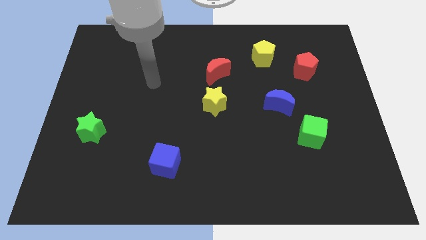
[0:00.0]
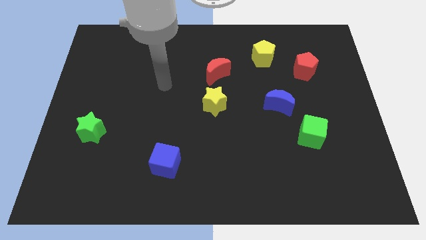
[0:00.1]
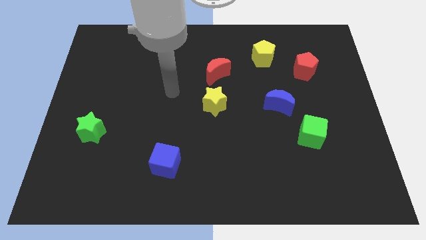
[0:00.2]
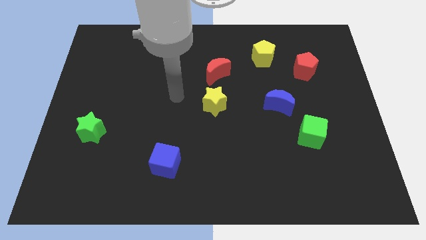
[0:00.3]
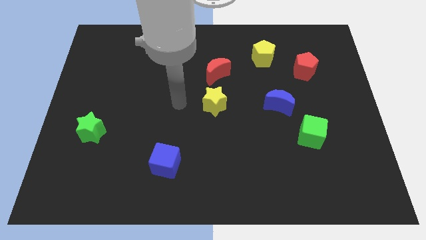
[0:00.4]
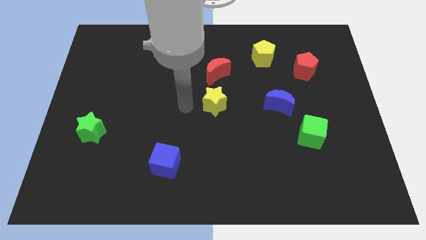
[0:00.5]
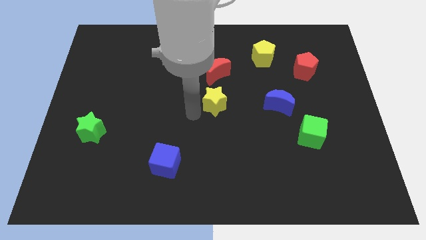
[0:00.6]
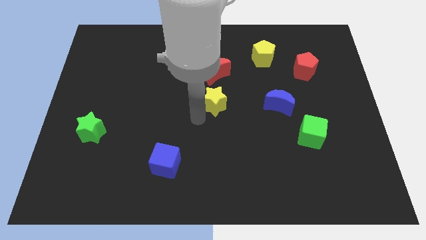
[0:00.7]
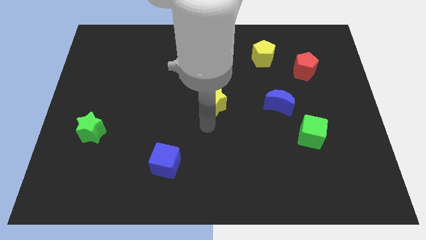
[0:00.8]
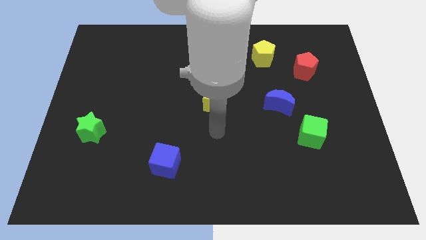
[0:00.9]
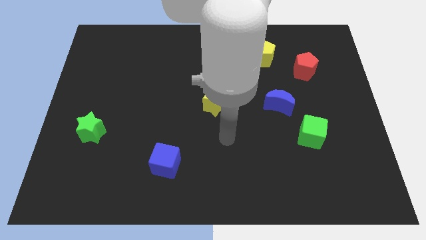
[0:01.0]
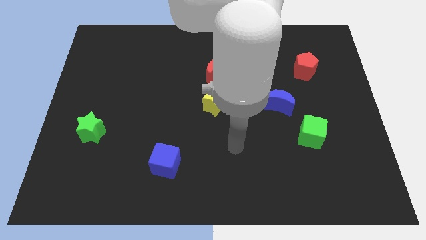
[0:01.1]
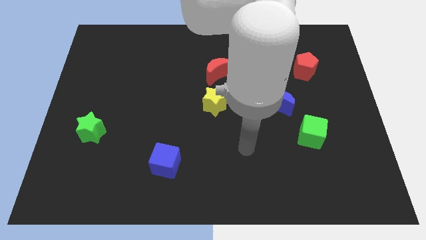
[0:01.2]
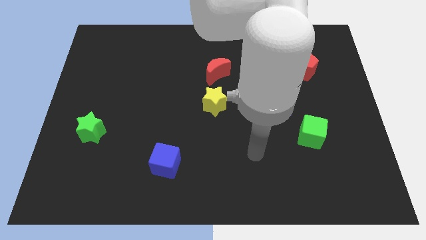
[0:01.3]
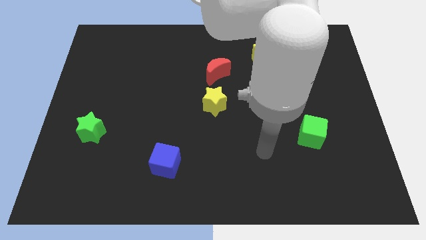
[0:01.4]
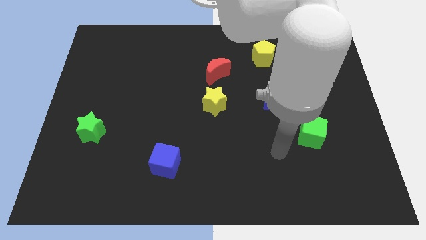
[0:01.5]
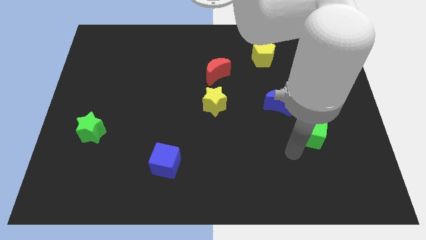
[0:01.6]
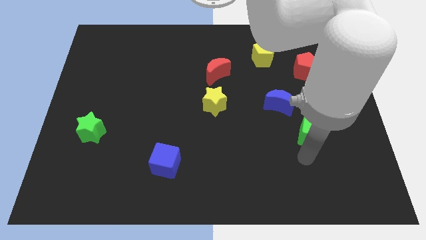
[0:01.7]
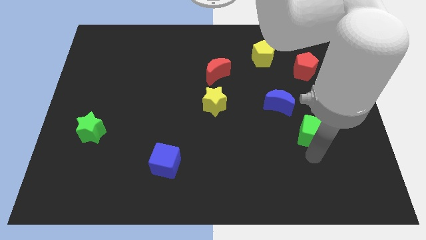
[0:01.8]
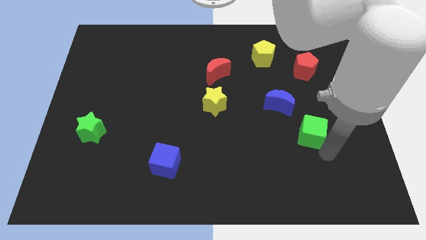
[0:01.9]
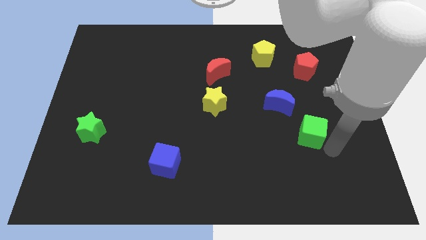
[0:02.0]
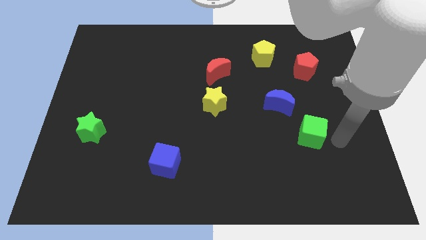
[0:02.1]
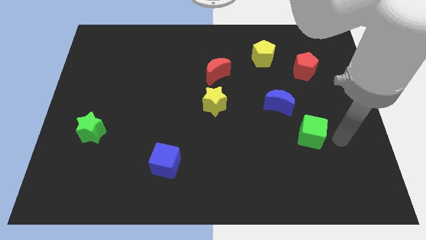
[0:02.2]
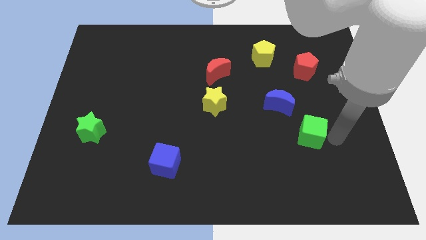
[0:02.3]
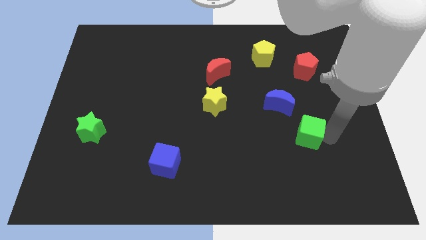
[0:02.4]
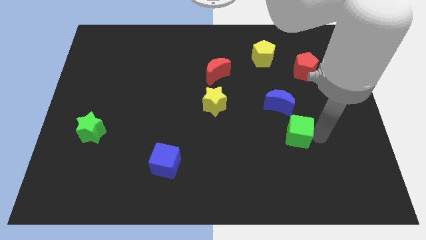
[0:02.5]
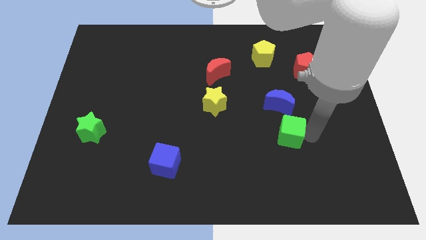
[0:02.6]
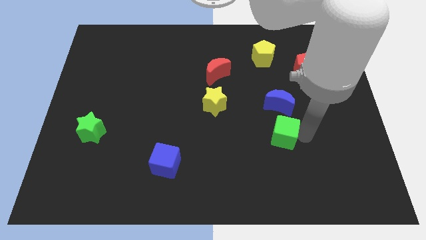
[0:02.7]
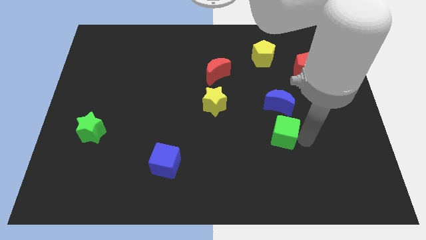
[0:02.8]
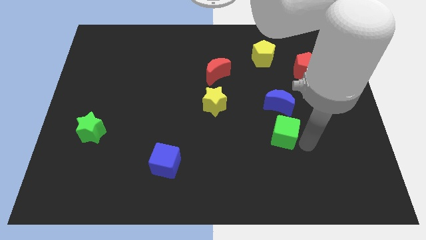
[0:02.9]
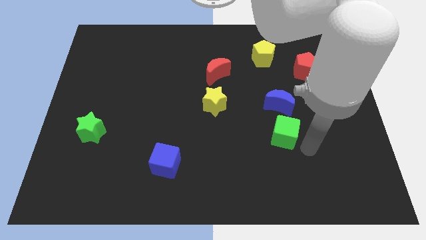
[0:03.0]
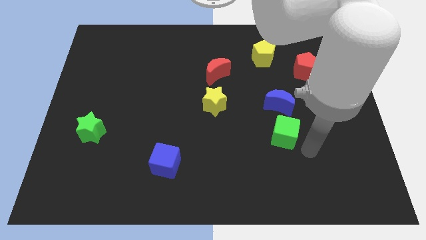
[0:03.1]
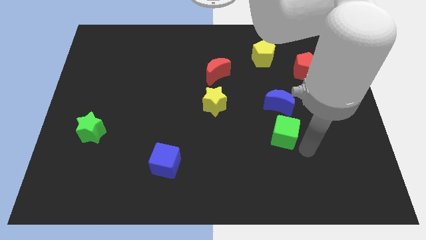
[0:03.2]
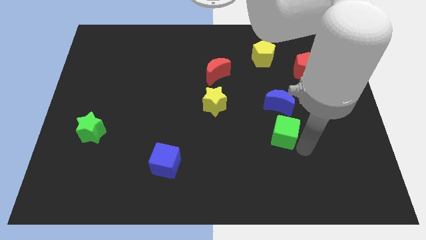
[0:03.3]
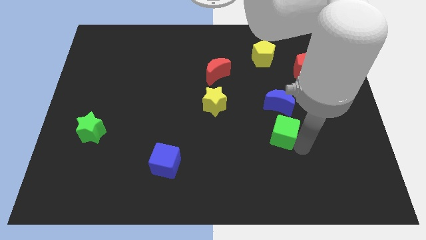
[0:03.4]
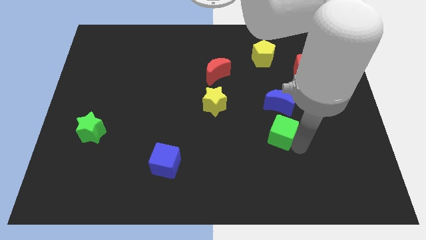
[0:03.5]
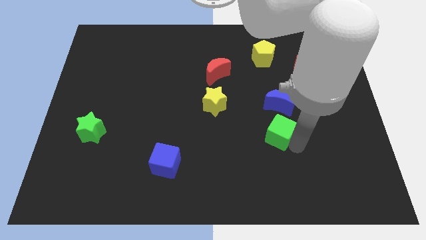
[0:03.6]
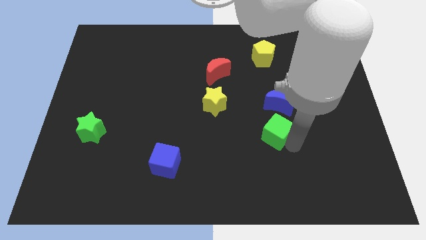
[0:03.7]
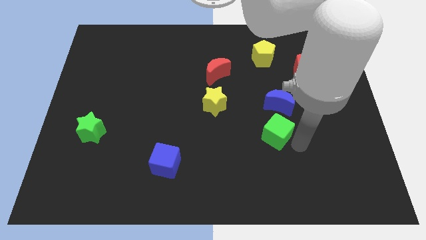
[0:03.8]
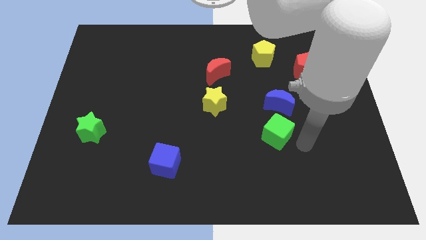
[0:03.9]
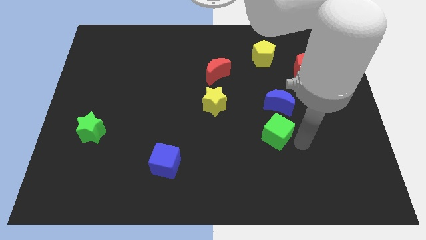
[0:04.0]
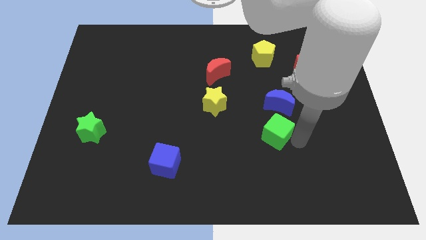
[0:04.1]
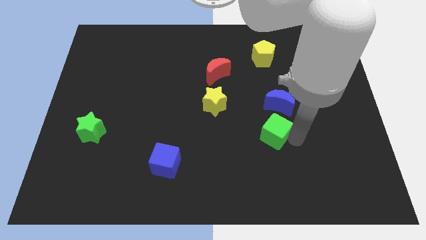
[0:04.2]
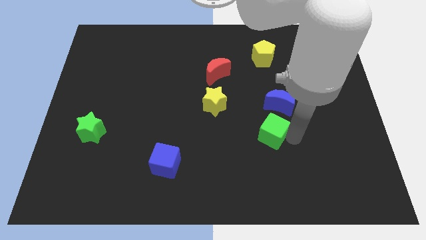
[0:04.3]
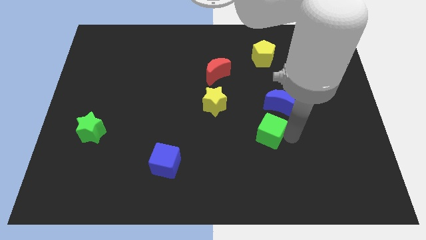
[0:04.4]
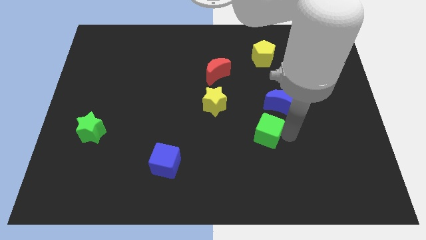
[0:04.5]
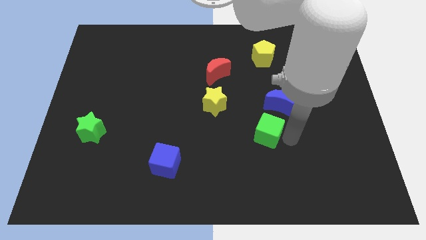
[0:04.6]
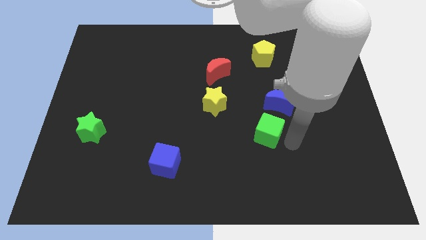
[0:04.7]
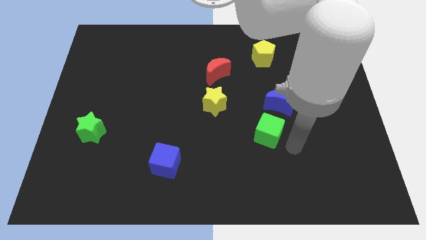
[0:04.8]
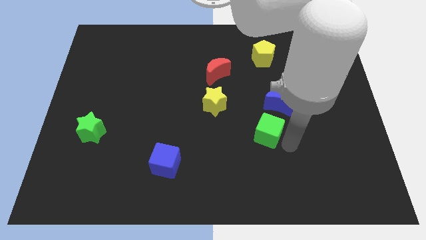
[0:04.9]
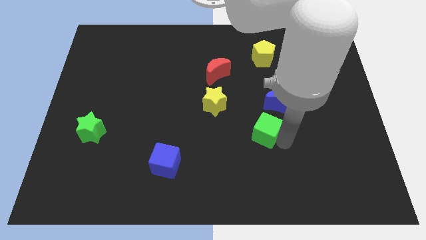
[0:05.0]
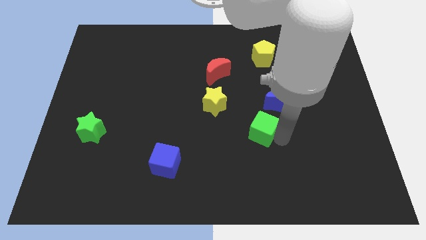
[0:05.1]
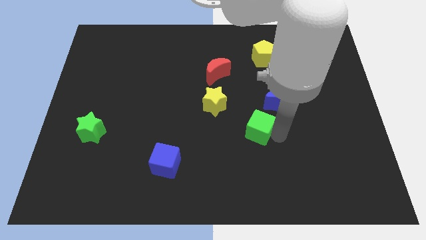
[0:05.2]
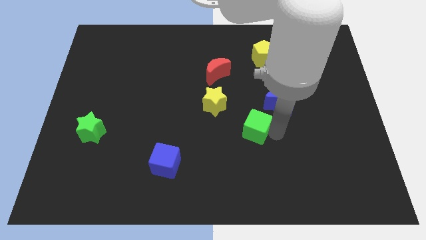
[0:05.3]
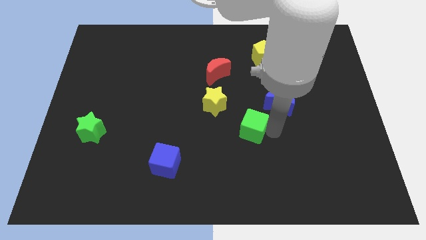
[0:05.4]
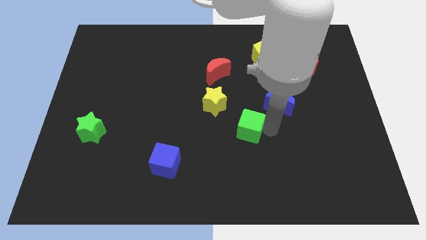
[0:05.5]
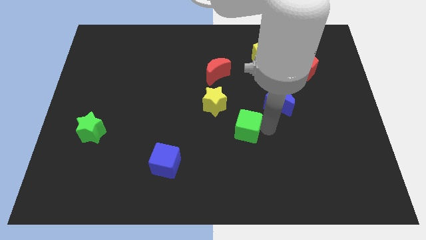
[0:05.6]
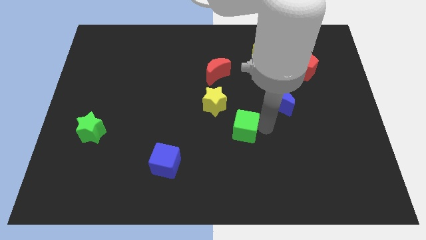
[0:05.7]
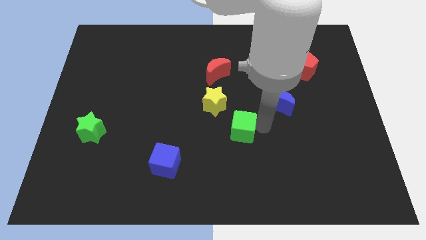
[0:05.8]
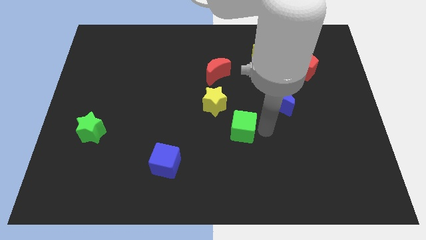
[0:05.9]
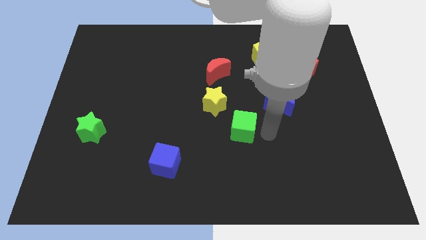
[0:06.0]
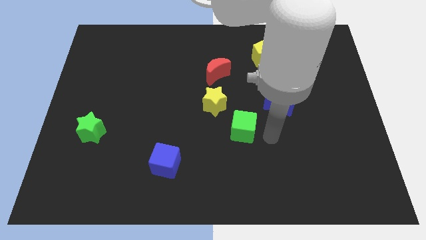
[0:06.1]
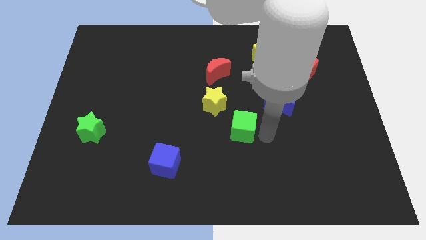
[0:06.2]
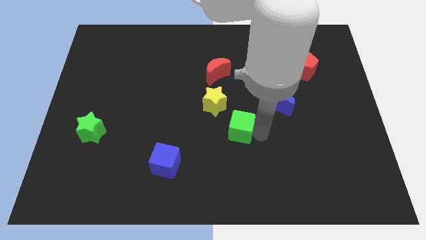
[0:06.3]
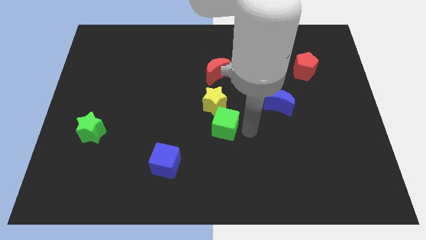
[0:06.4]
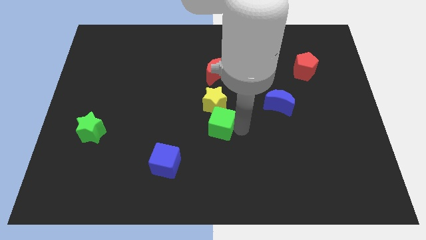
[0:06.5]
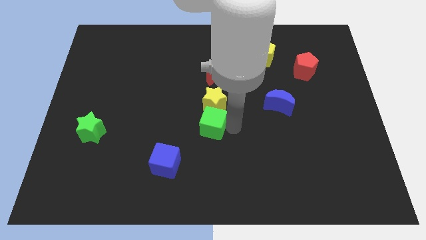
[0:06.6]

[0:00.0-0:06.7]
move the green cube diagonally down and to the left of the yellow star

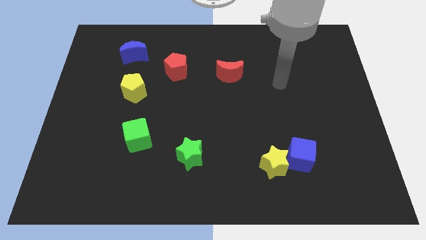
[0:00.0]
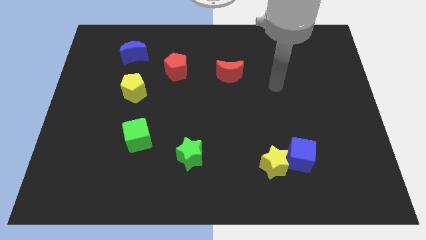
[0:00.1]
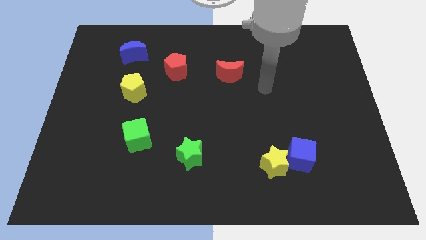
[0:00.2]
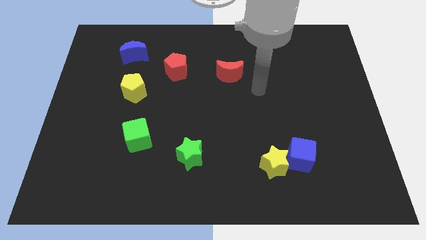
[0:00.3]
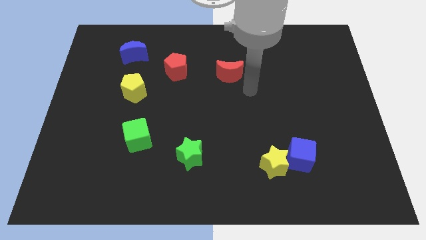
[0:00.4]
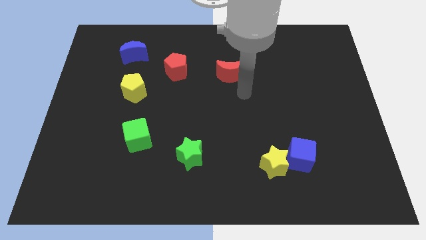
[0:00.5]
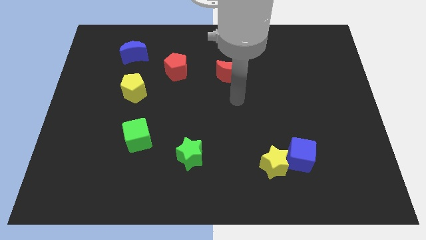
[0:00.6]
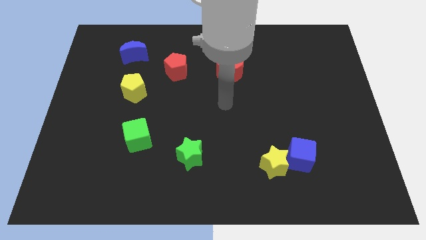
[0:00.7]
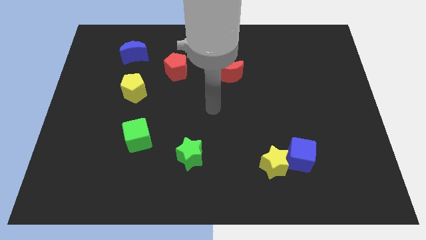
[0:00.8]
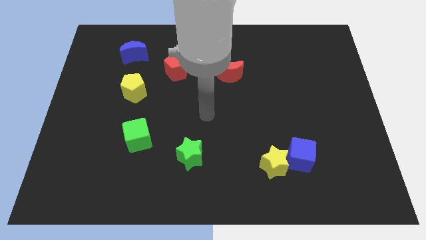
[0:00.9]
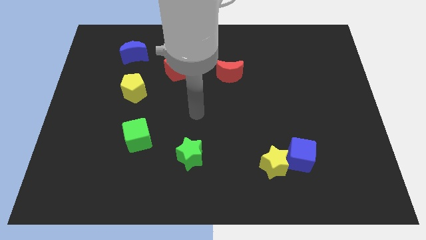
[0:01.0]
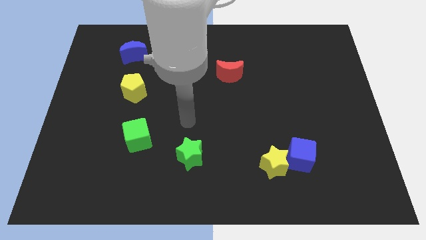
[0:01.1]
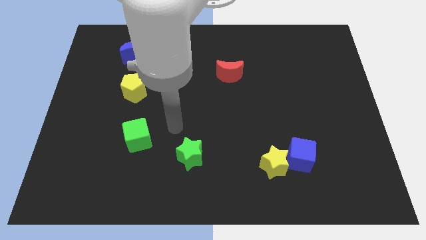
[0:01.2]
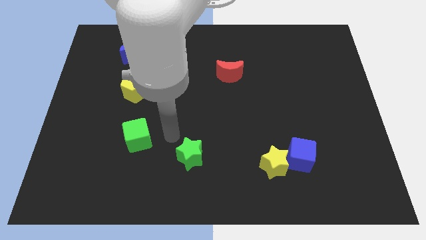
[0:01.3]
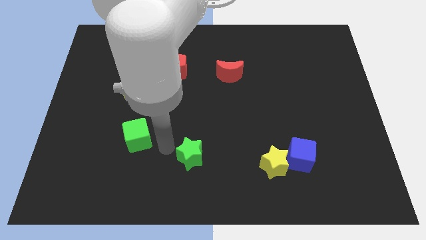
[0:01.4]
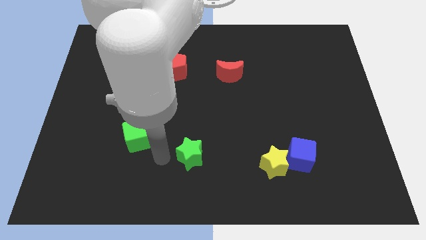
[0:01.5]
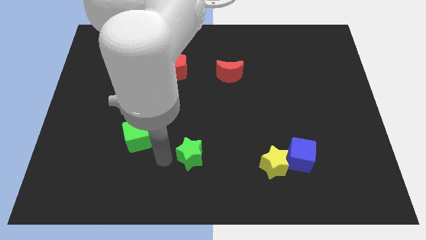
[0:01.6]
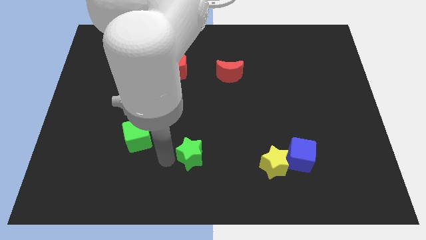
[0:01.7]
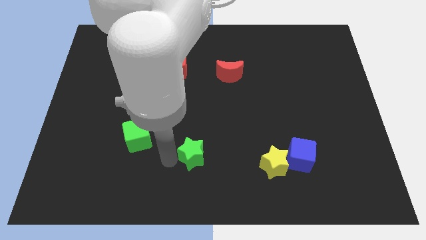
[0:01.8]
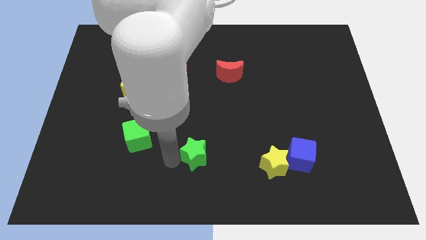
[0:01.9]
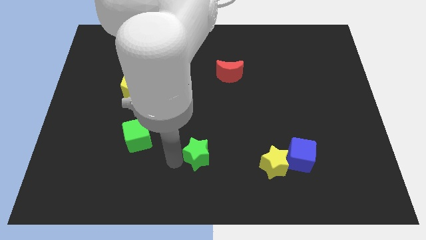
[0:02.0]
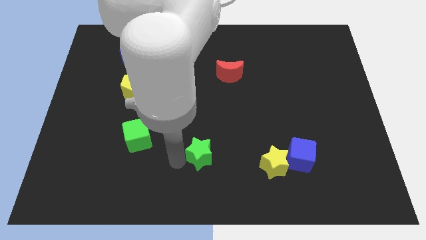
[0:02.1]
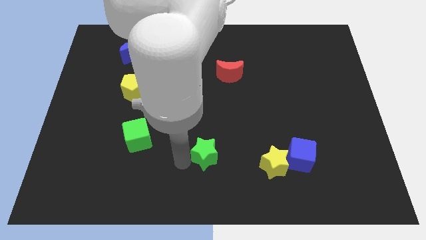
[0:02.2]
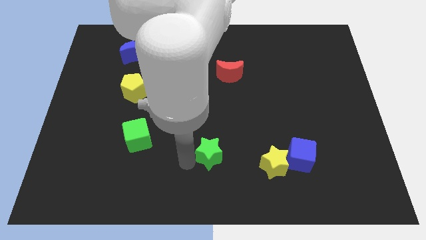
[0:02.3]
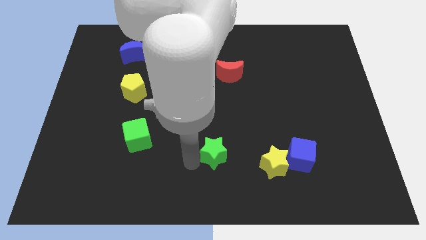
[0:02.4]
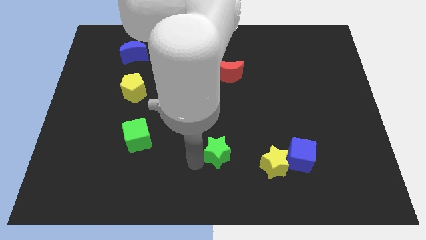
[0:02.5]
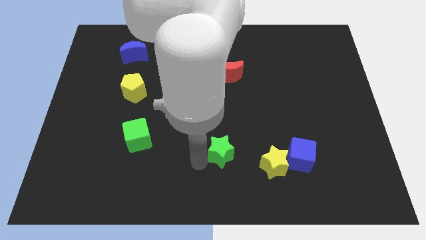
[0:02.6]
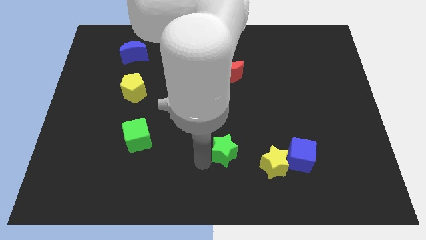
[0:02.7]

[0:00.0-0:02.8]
move the green star just left of the blue cube
